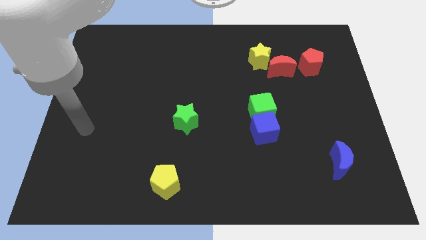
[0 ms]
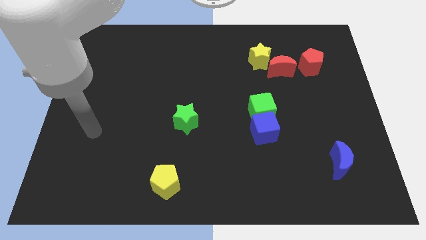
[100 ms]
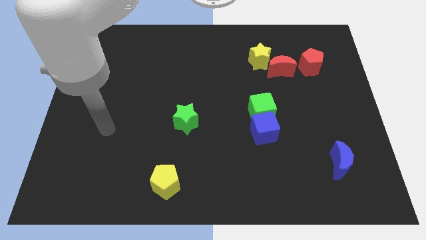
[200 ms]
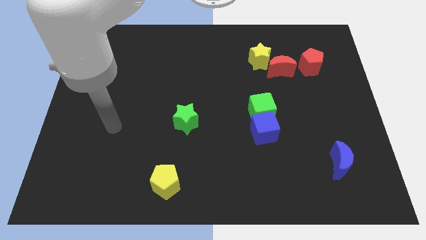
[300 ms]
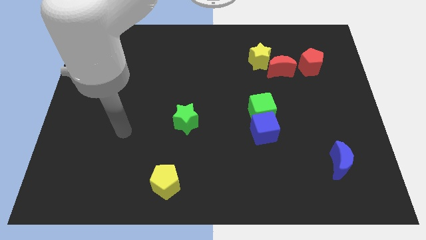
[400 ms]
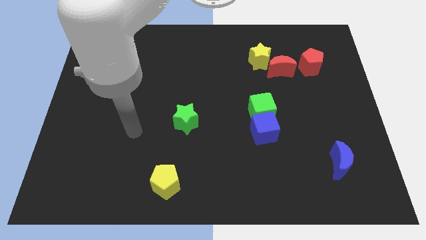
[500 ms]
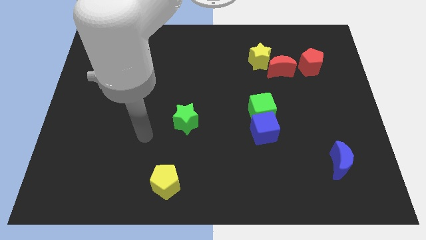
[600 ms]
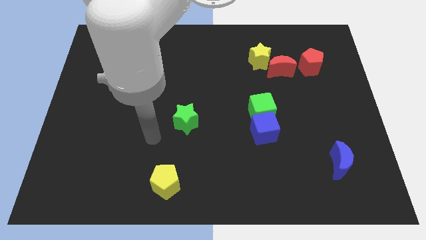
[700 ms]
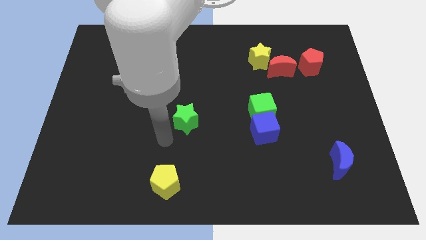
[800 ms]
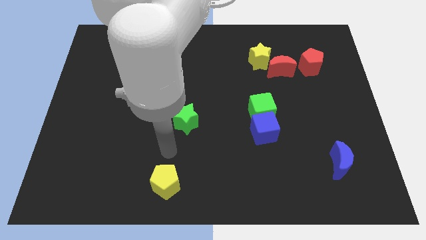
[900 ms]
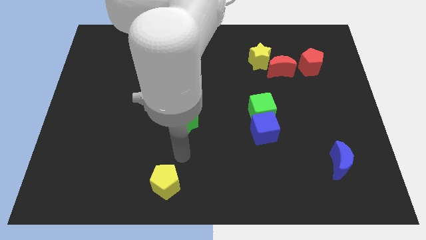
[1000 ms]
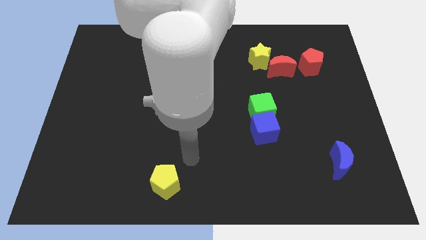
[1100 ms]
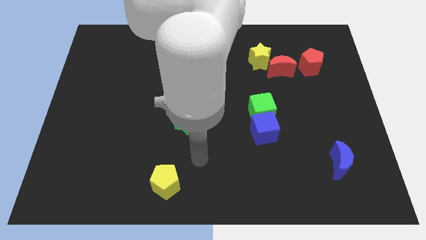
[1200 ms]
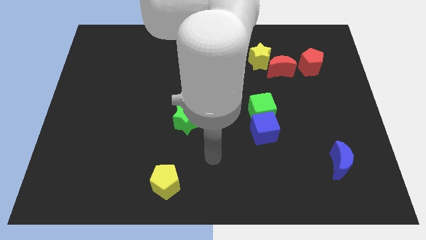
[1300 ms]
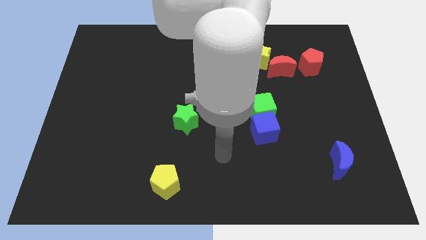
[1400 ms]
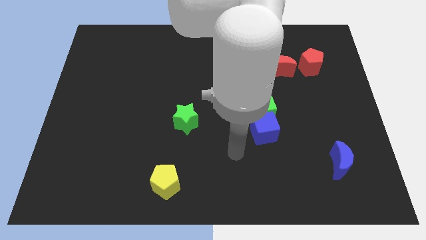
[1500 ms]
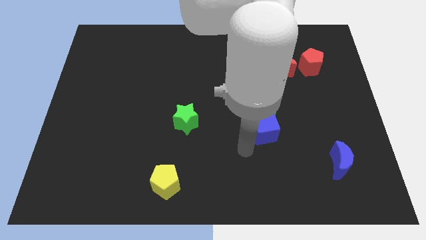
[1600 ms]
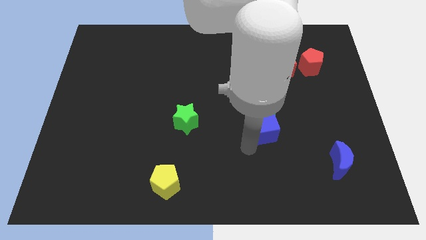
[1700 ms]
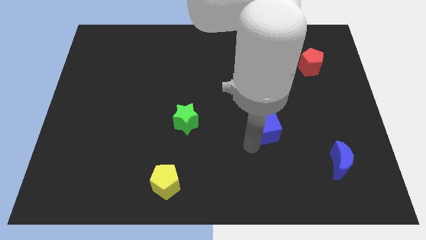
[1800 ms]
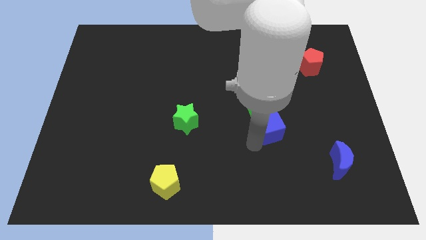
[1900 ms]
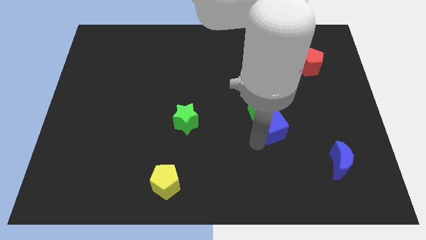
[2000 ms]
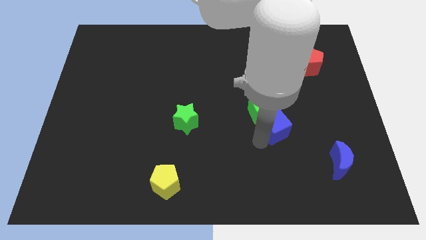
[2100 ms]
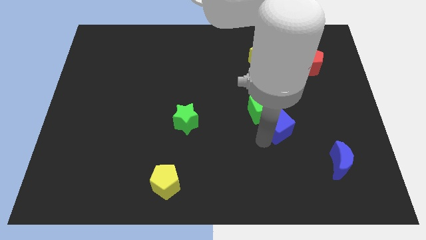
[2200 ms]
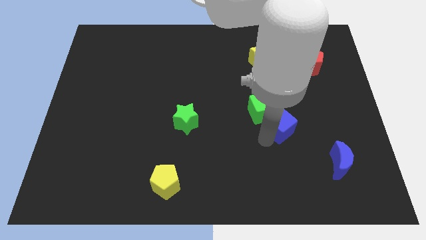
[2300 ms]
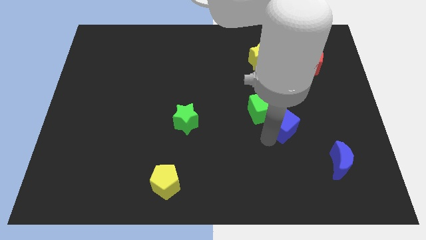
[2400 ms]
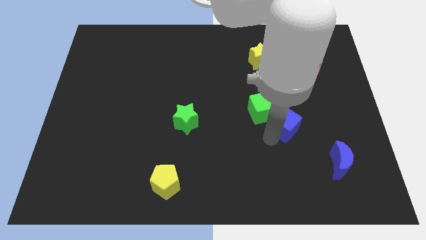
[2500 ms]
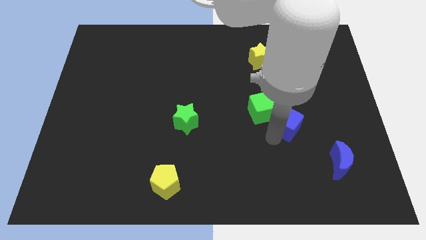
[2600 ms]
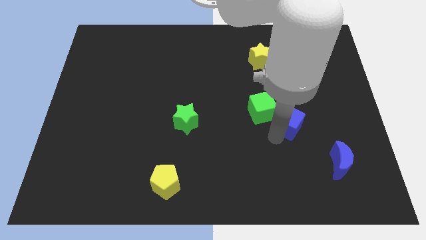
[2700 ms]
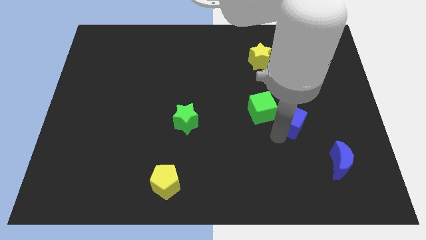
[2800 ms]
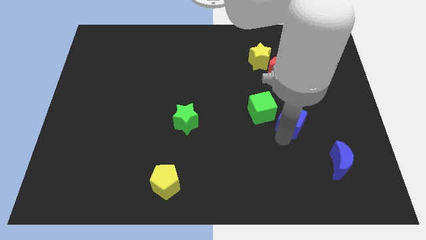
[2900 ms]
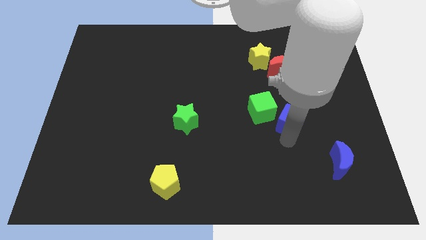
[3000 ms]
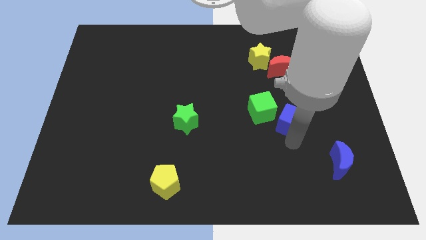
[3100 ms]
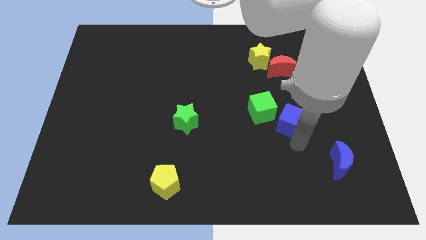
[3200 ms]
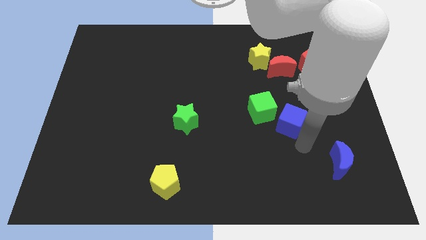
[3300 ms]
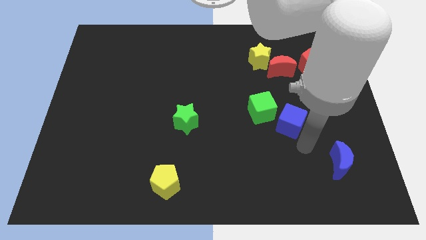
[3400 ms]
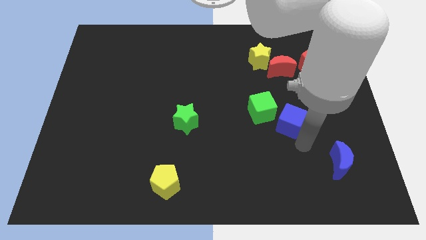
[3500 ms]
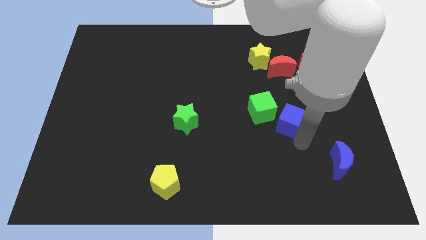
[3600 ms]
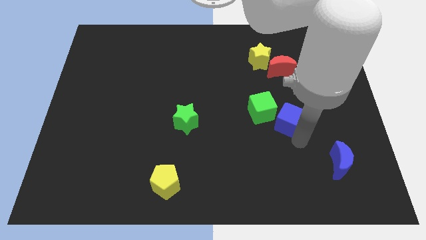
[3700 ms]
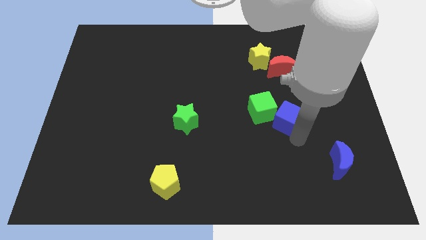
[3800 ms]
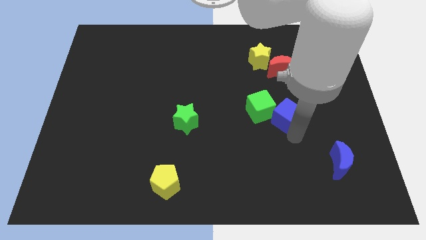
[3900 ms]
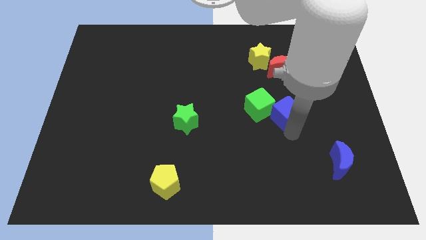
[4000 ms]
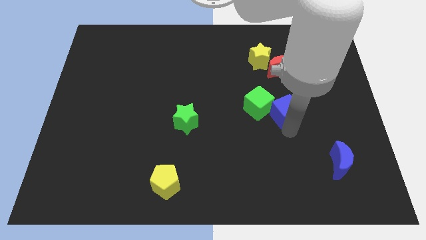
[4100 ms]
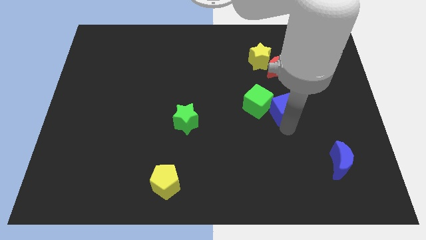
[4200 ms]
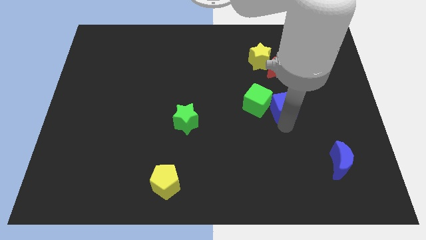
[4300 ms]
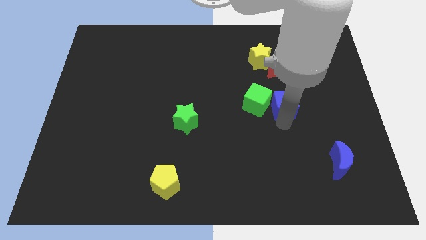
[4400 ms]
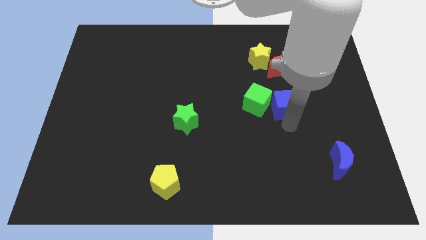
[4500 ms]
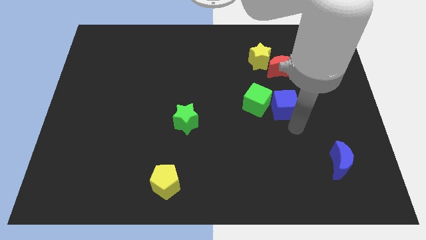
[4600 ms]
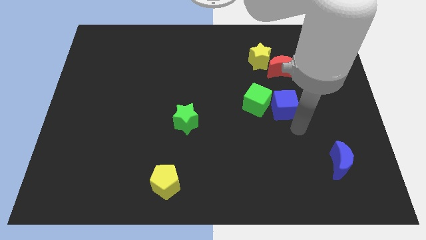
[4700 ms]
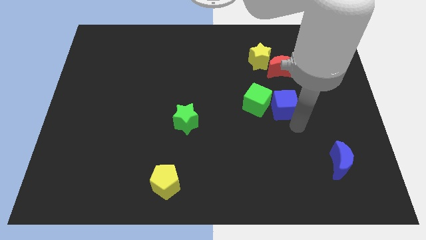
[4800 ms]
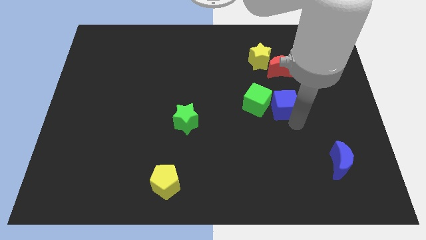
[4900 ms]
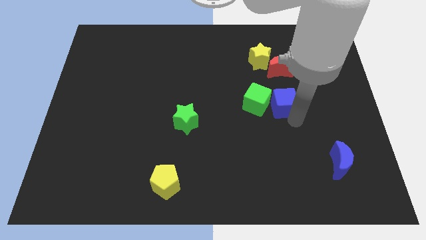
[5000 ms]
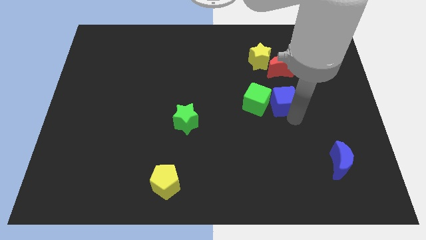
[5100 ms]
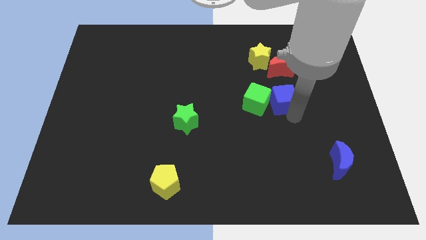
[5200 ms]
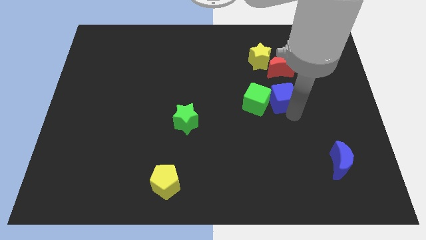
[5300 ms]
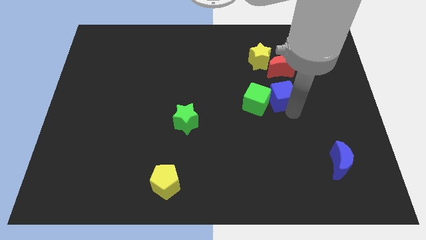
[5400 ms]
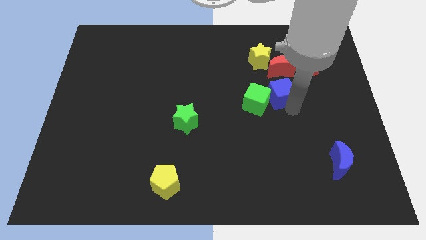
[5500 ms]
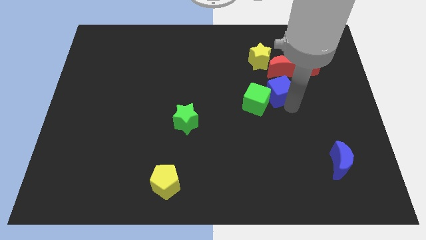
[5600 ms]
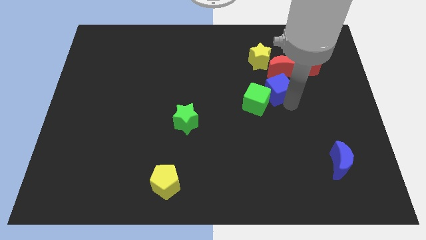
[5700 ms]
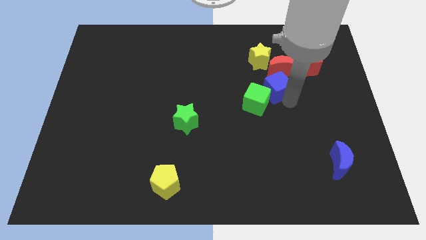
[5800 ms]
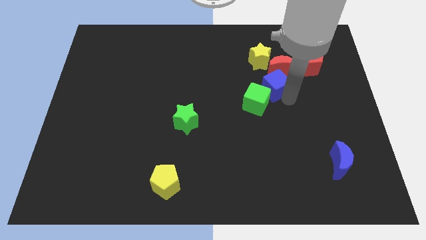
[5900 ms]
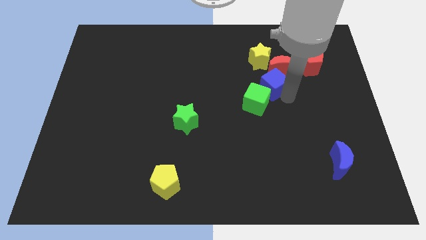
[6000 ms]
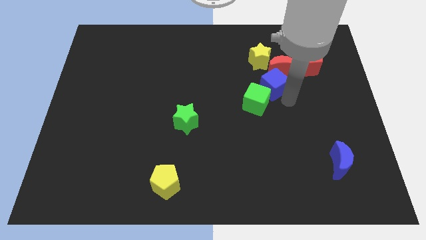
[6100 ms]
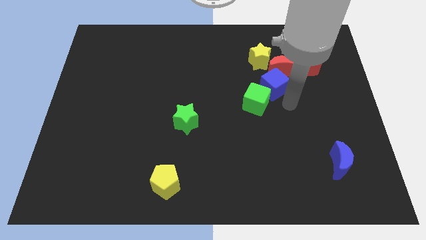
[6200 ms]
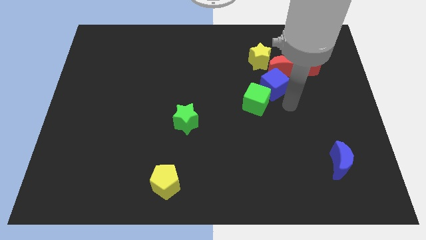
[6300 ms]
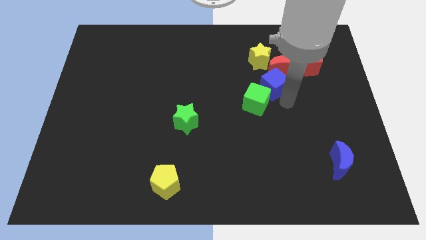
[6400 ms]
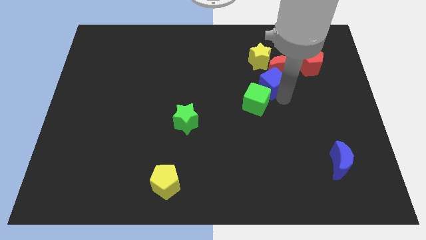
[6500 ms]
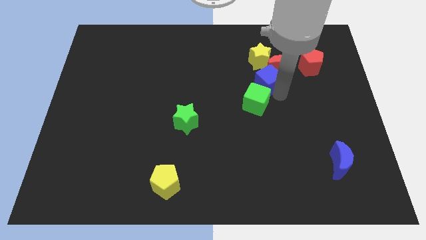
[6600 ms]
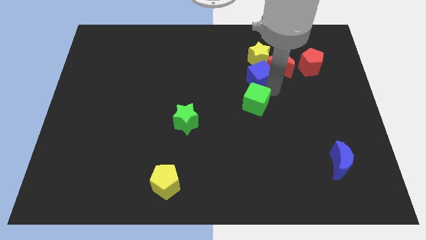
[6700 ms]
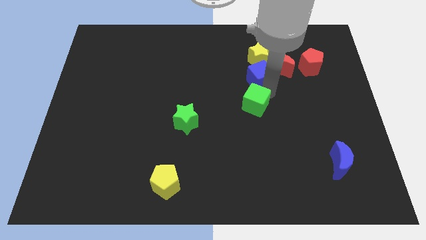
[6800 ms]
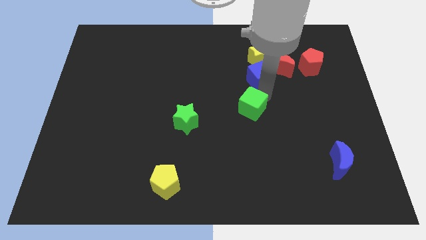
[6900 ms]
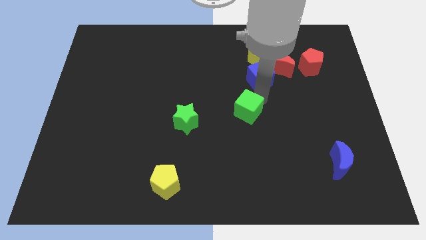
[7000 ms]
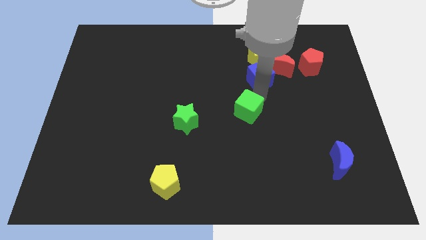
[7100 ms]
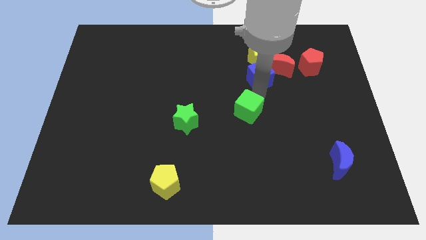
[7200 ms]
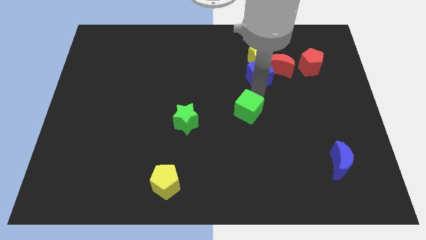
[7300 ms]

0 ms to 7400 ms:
slide the blue cube next to the yellow star

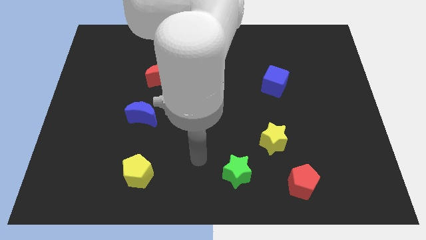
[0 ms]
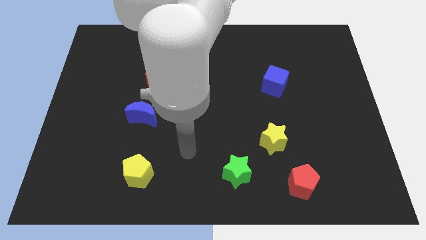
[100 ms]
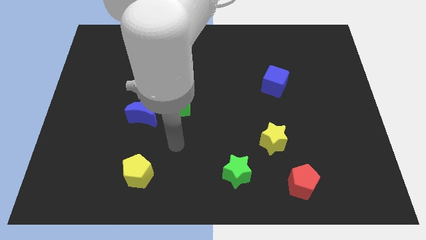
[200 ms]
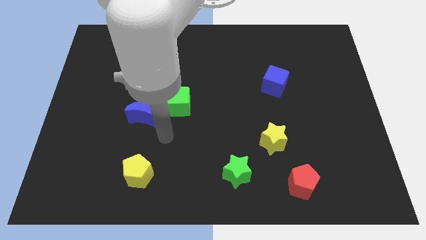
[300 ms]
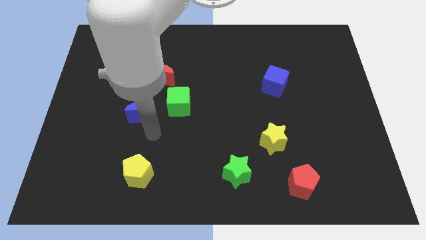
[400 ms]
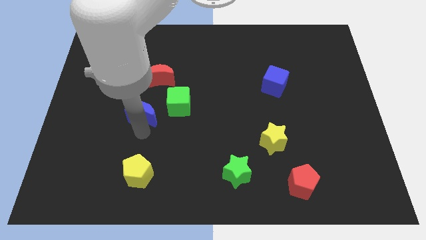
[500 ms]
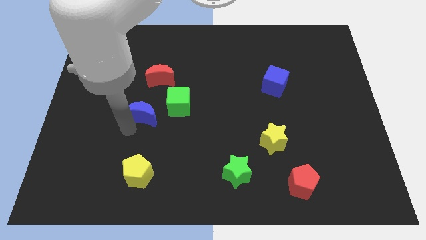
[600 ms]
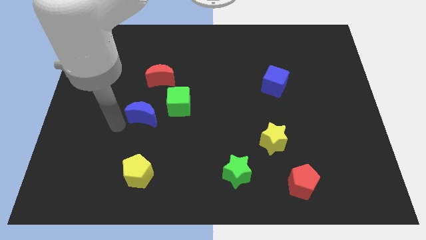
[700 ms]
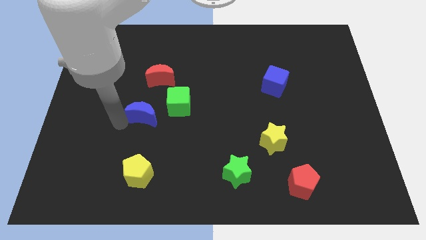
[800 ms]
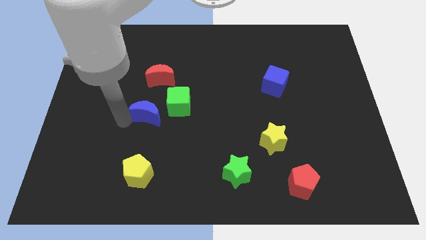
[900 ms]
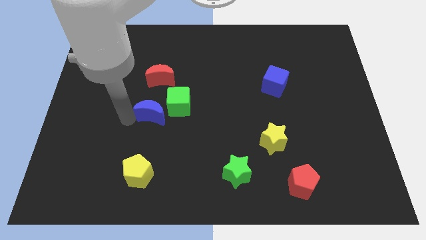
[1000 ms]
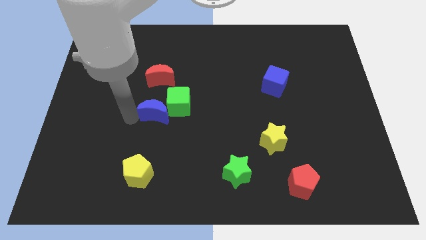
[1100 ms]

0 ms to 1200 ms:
push the blue moon close to the green cube
